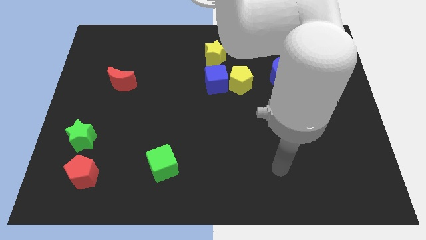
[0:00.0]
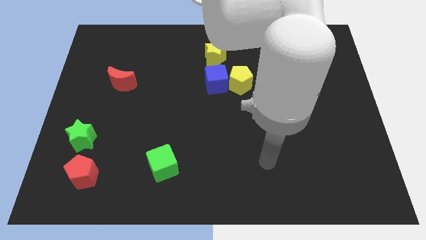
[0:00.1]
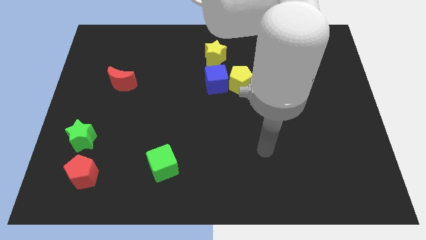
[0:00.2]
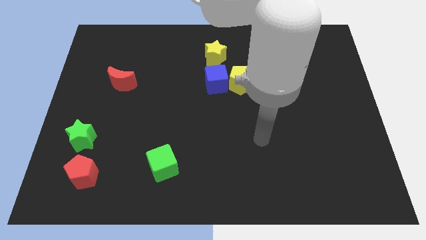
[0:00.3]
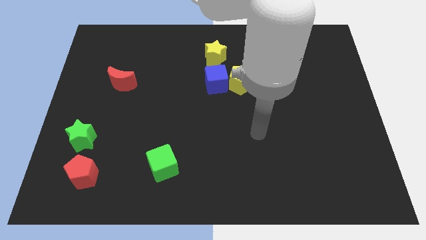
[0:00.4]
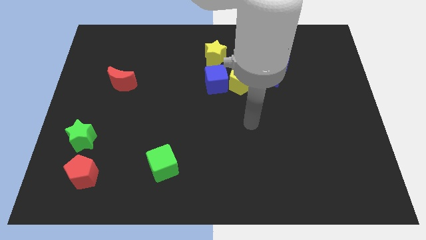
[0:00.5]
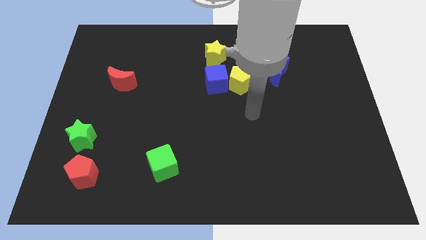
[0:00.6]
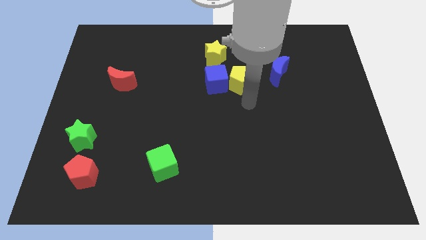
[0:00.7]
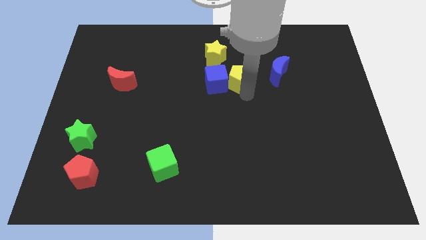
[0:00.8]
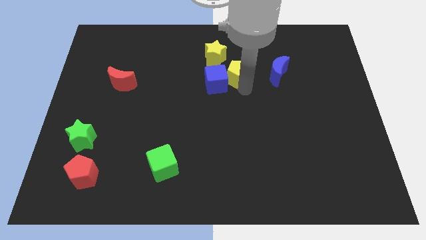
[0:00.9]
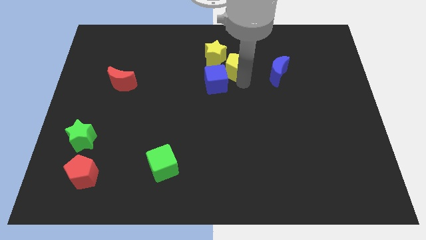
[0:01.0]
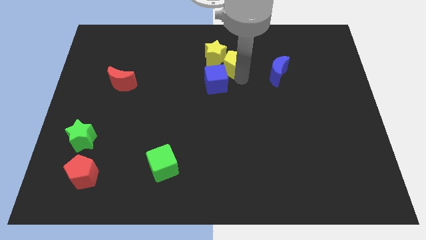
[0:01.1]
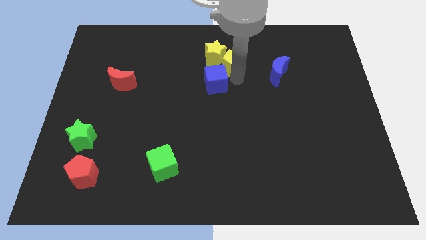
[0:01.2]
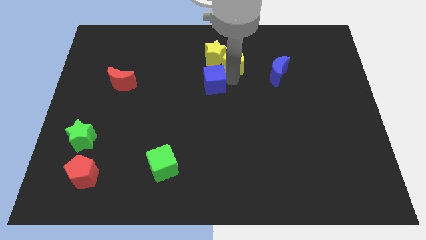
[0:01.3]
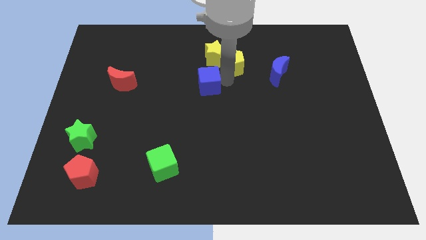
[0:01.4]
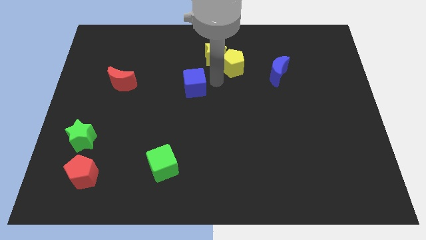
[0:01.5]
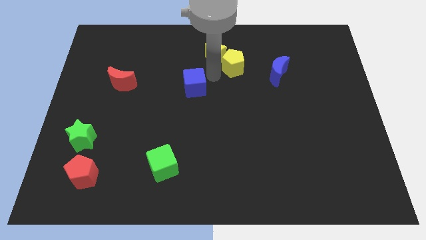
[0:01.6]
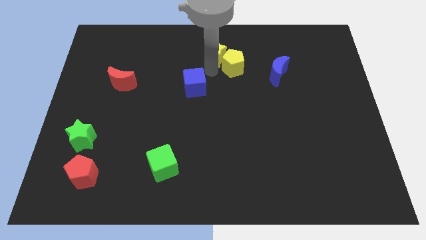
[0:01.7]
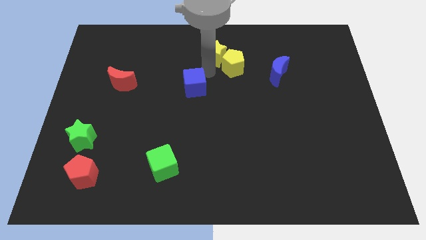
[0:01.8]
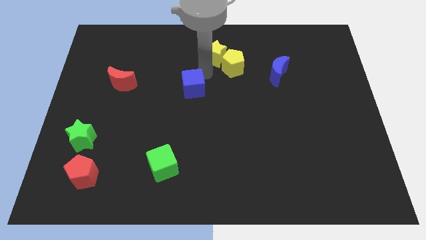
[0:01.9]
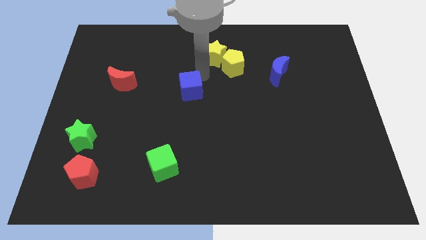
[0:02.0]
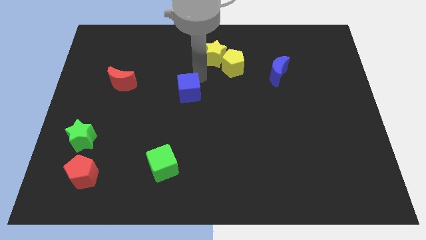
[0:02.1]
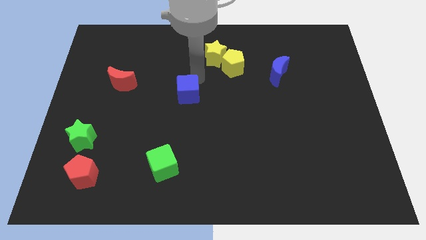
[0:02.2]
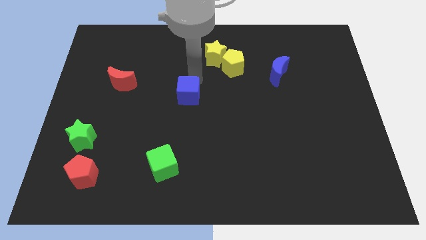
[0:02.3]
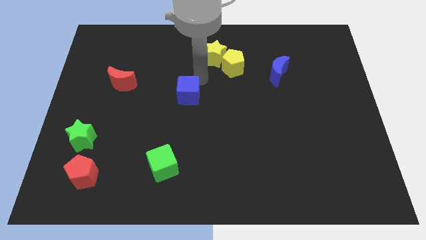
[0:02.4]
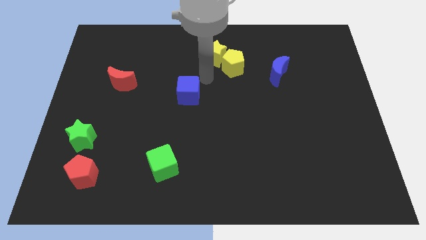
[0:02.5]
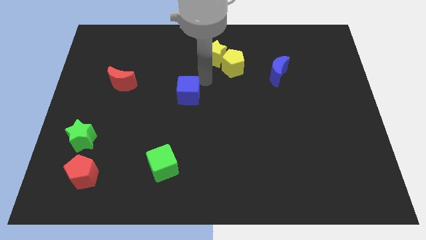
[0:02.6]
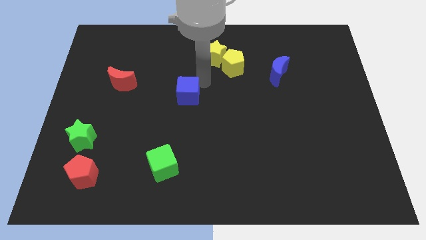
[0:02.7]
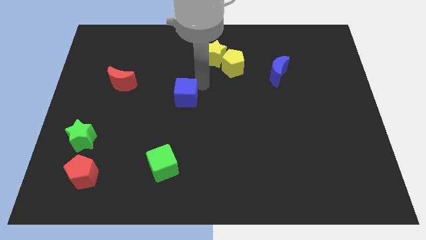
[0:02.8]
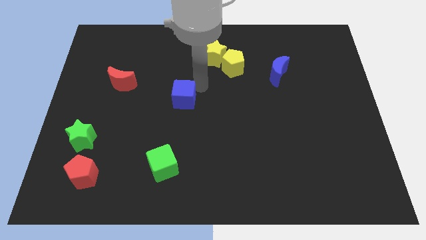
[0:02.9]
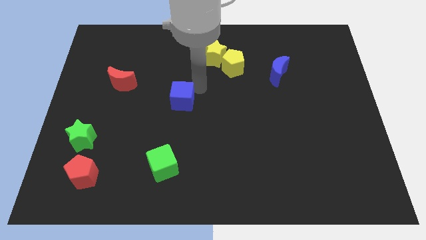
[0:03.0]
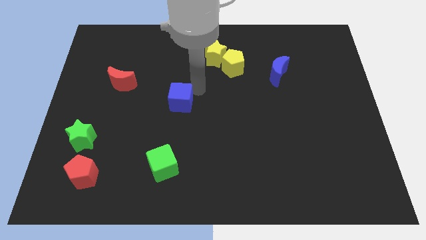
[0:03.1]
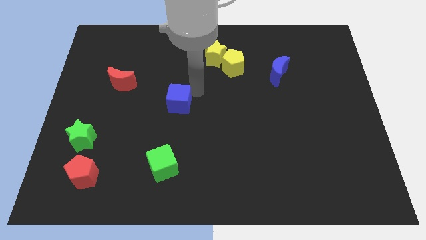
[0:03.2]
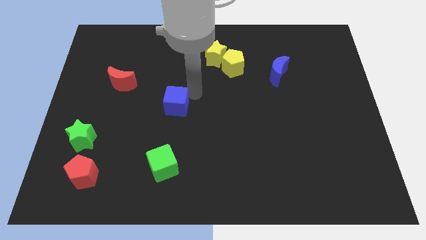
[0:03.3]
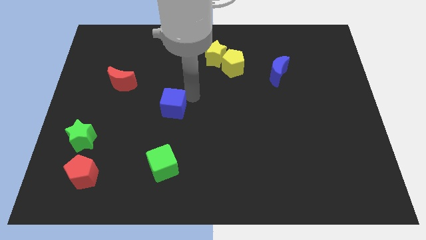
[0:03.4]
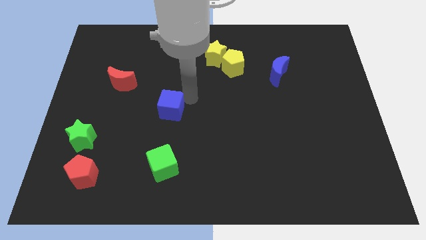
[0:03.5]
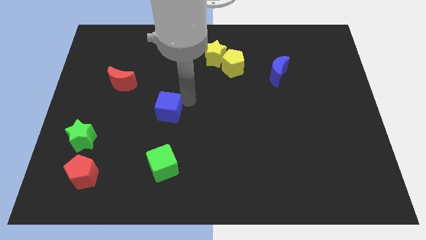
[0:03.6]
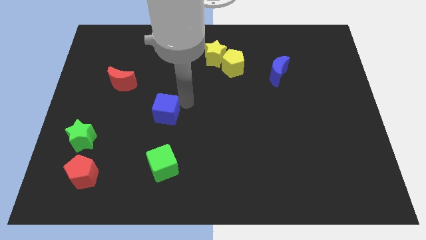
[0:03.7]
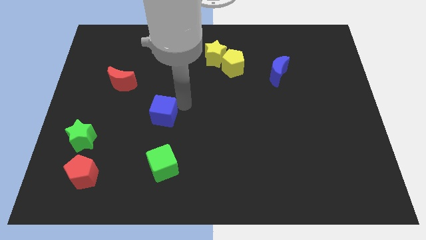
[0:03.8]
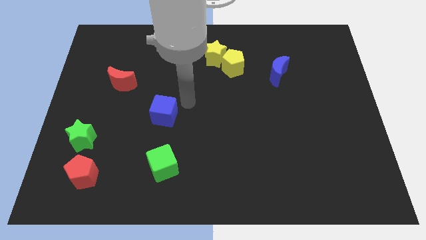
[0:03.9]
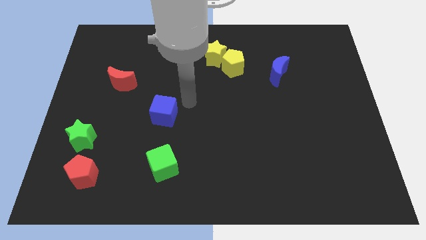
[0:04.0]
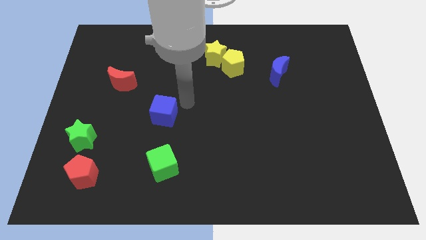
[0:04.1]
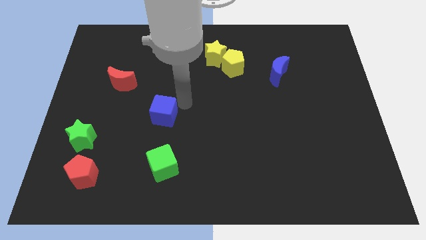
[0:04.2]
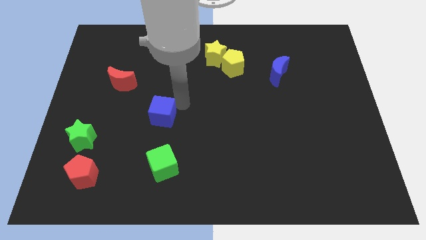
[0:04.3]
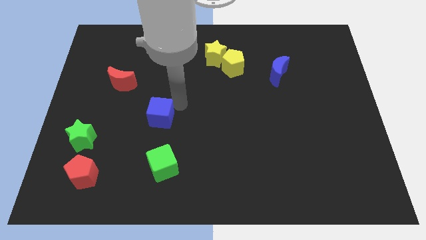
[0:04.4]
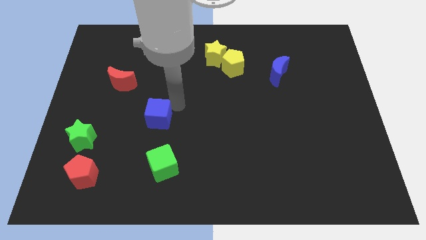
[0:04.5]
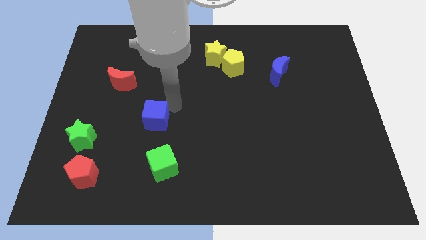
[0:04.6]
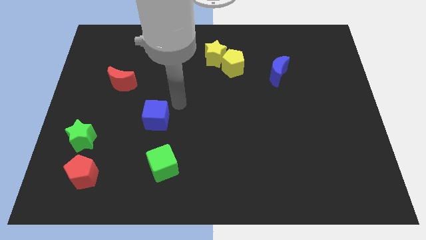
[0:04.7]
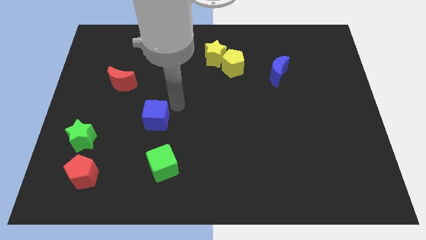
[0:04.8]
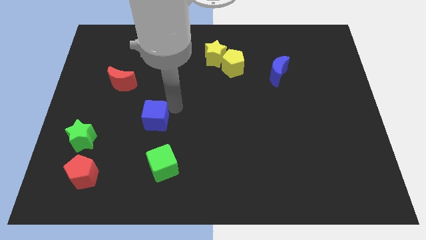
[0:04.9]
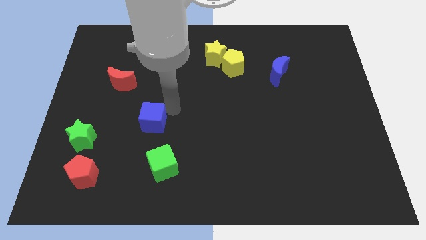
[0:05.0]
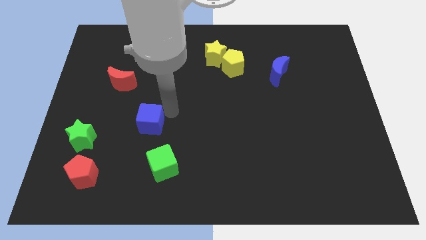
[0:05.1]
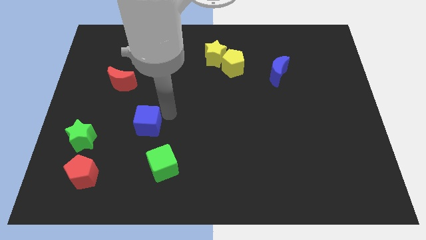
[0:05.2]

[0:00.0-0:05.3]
push the blue cube downwards and to the left diagonally

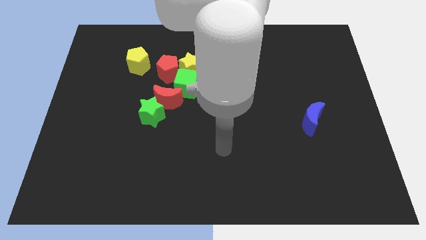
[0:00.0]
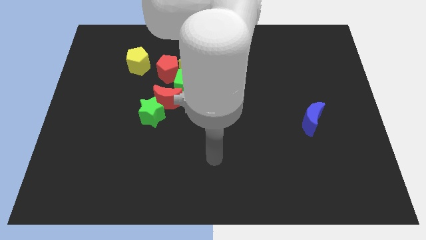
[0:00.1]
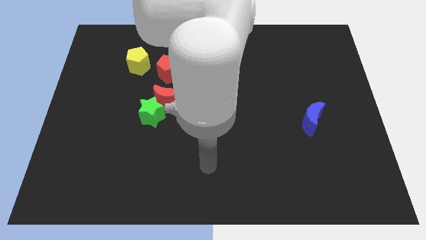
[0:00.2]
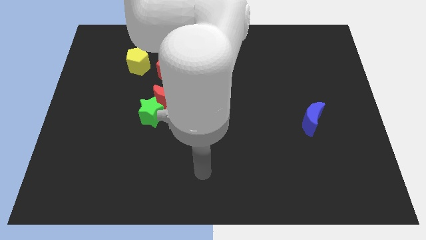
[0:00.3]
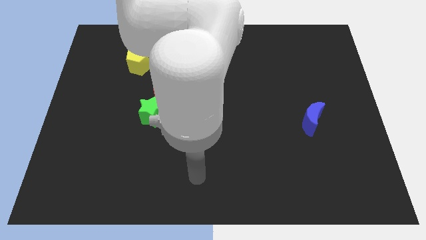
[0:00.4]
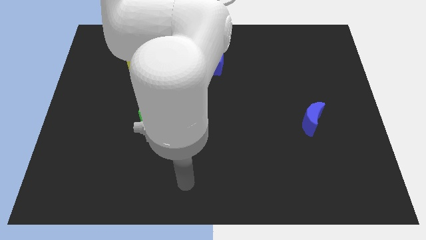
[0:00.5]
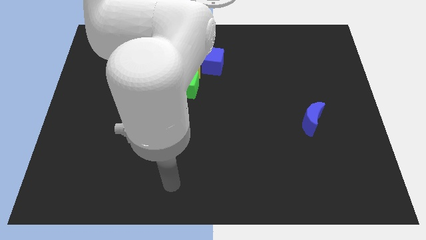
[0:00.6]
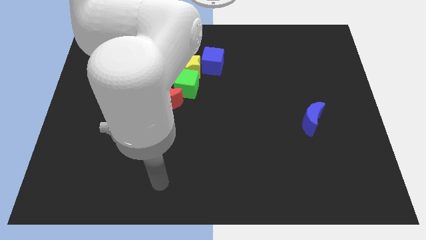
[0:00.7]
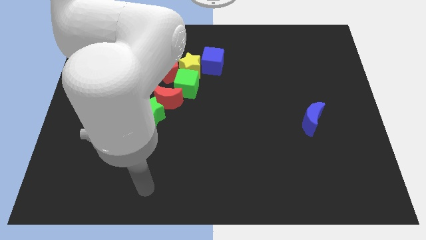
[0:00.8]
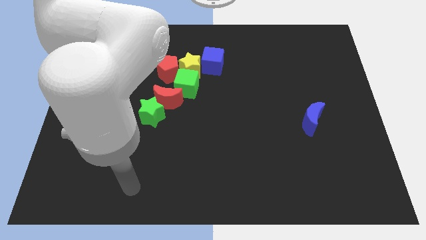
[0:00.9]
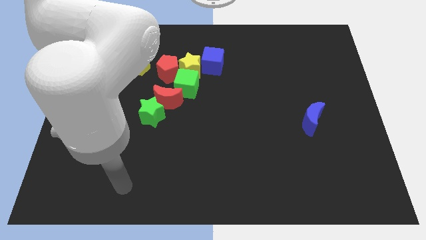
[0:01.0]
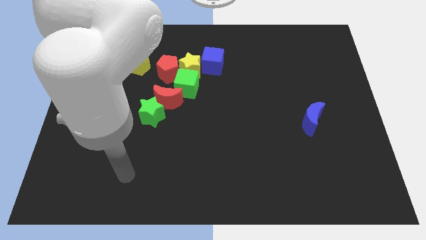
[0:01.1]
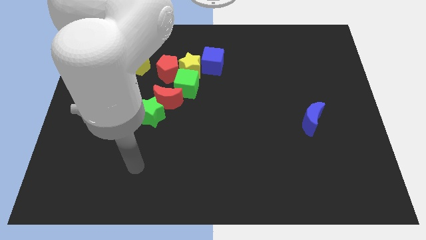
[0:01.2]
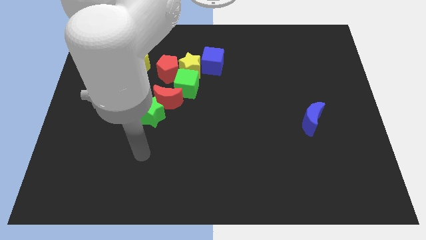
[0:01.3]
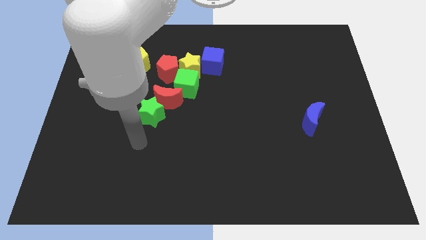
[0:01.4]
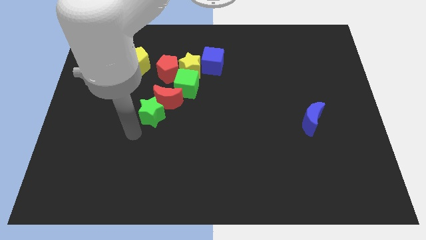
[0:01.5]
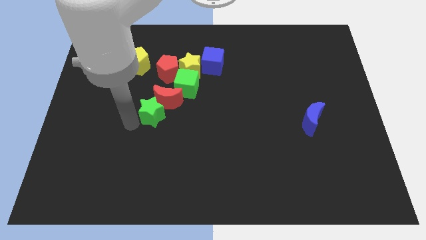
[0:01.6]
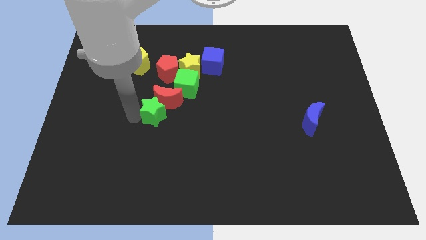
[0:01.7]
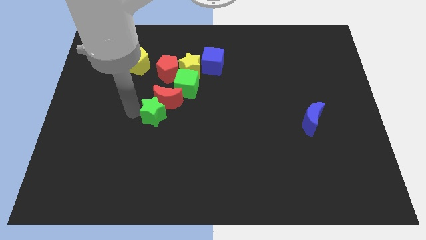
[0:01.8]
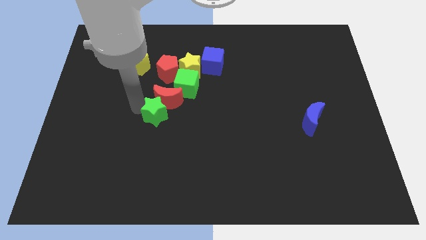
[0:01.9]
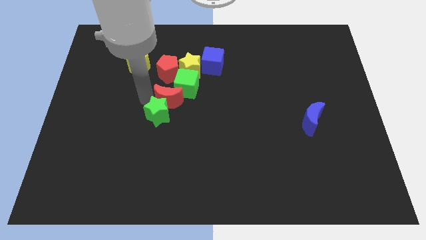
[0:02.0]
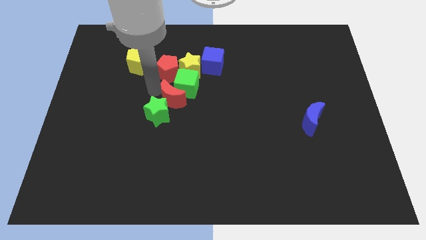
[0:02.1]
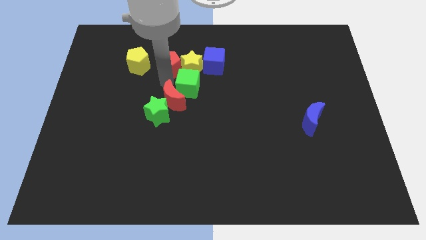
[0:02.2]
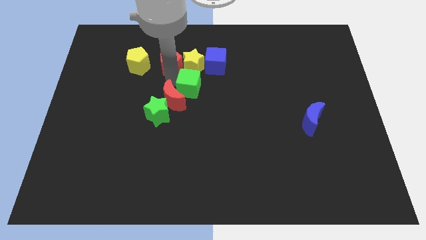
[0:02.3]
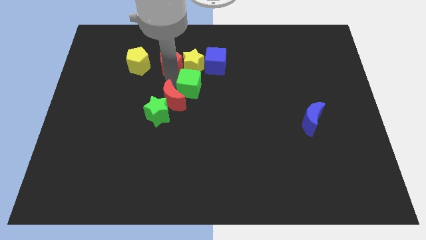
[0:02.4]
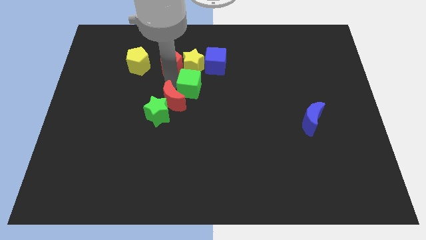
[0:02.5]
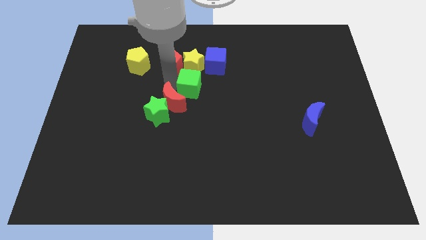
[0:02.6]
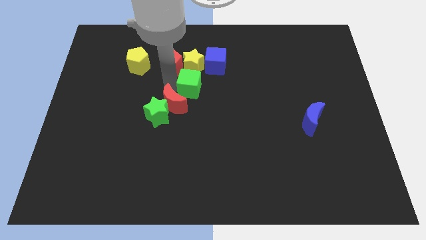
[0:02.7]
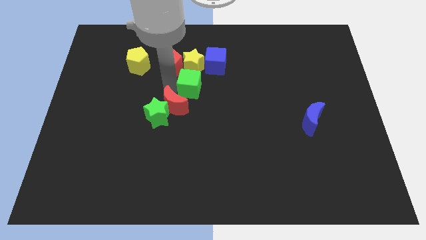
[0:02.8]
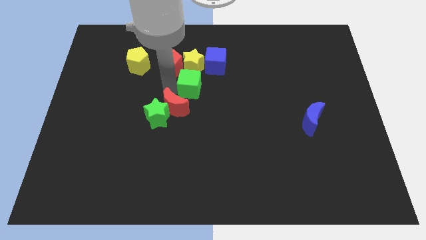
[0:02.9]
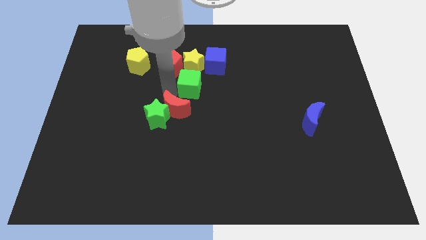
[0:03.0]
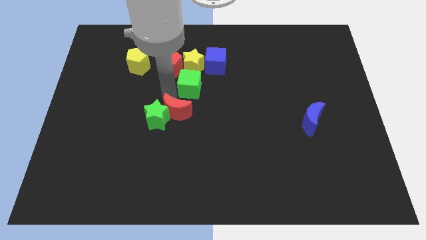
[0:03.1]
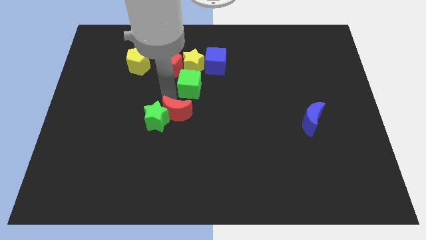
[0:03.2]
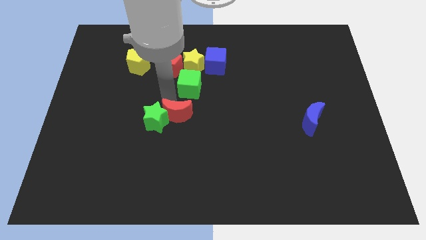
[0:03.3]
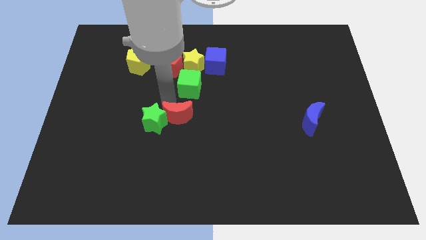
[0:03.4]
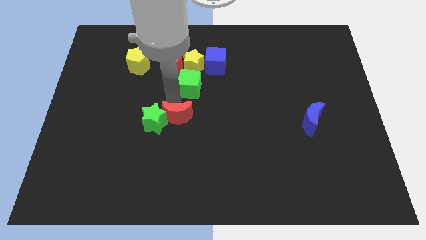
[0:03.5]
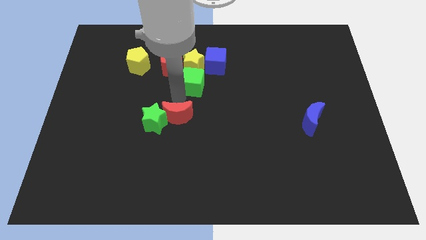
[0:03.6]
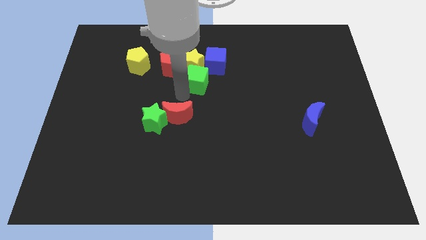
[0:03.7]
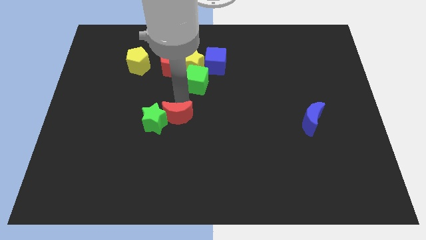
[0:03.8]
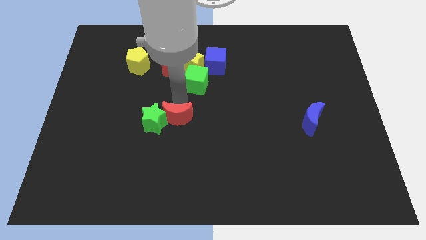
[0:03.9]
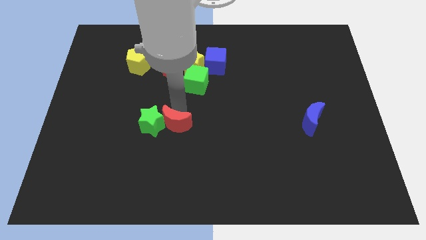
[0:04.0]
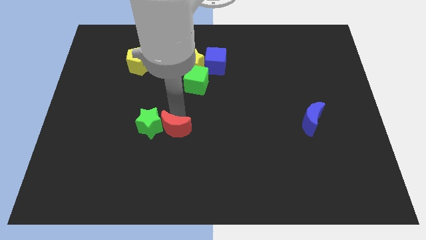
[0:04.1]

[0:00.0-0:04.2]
move the red moon a little bit down
